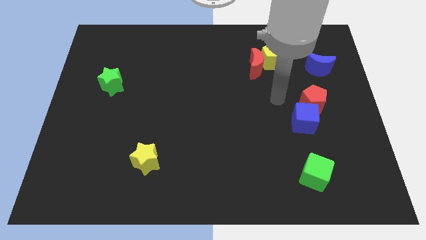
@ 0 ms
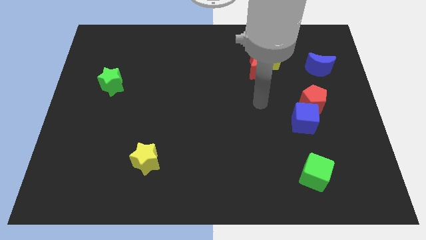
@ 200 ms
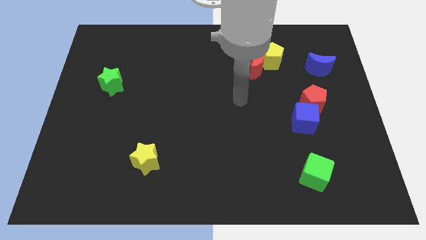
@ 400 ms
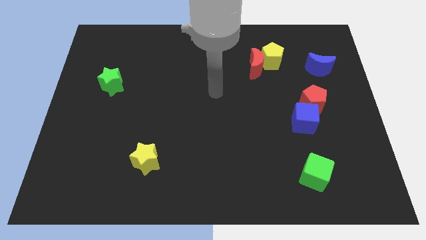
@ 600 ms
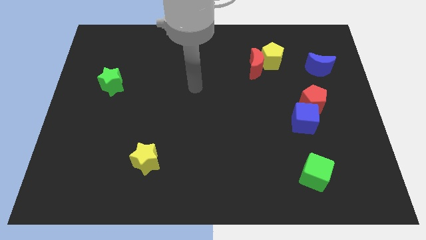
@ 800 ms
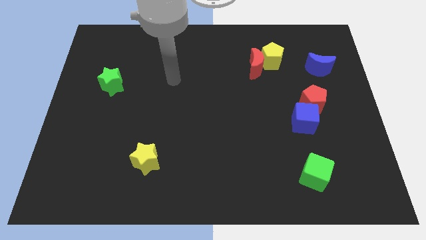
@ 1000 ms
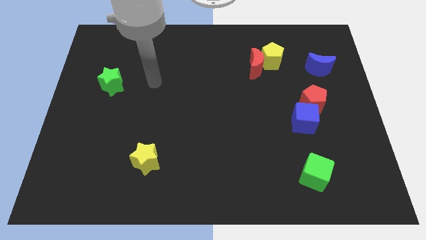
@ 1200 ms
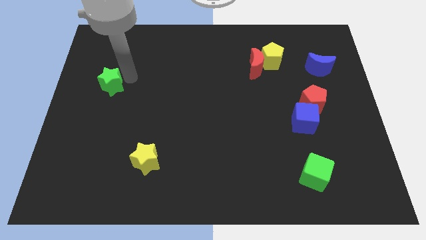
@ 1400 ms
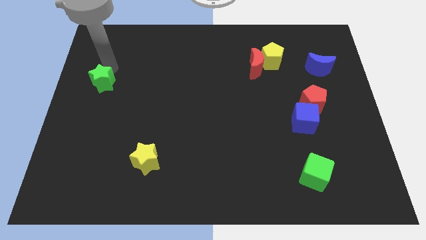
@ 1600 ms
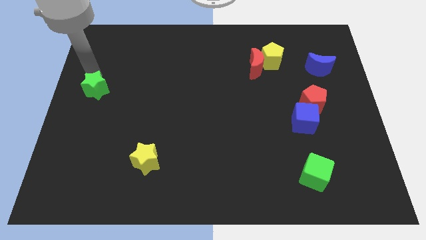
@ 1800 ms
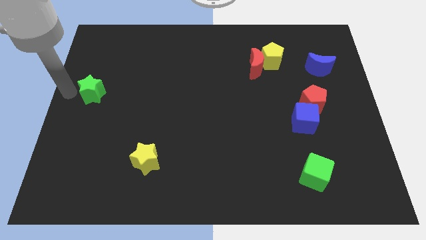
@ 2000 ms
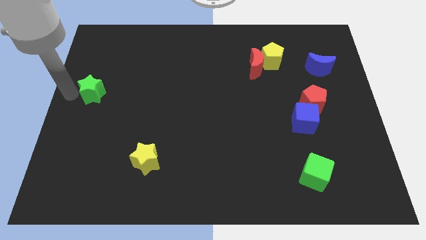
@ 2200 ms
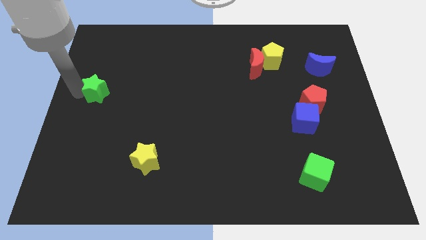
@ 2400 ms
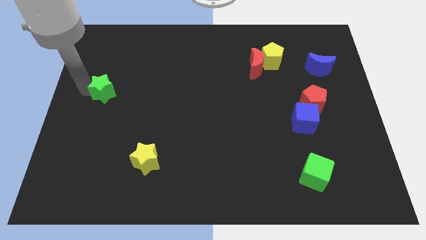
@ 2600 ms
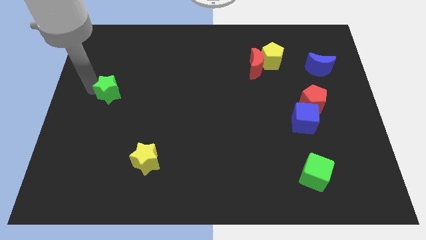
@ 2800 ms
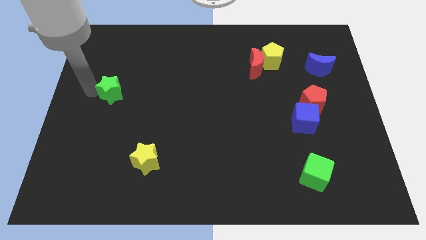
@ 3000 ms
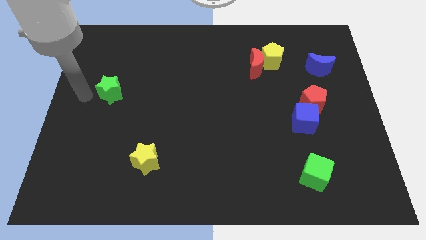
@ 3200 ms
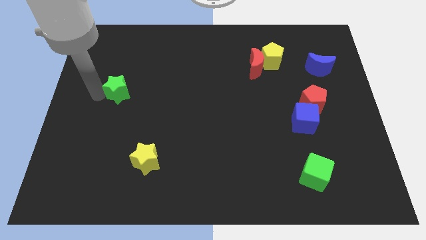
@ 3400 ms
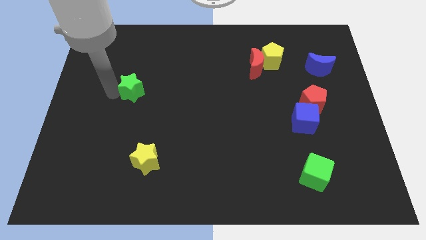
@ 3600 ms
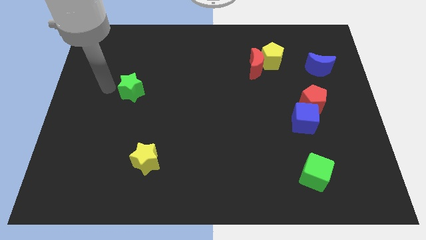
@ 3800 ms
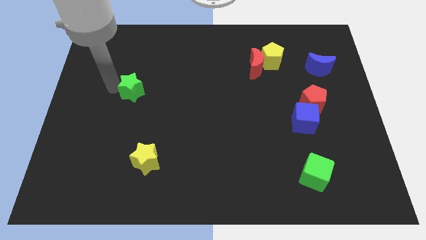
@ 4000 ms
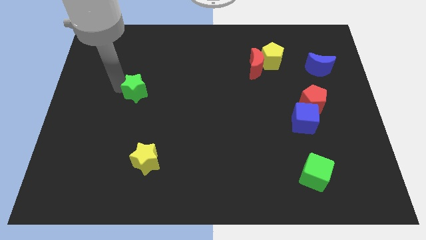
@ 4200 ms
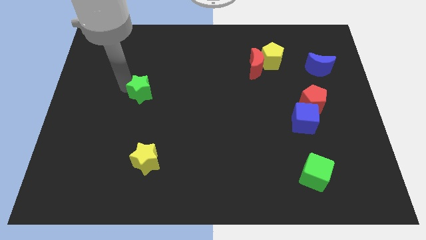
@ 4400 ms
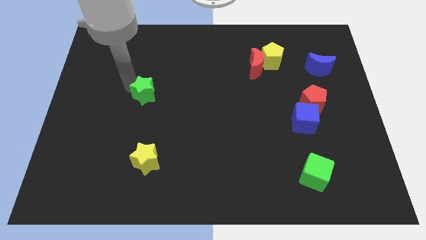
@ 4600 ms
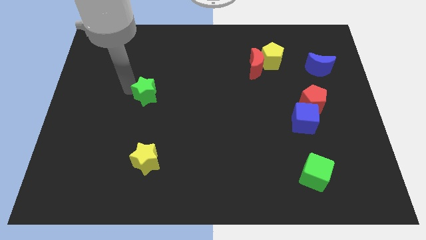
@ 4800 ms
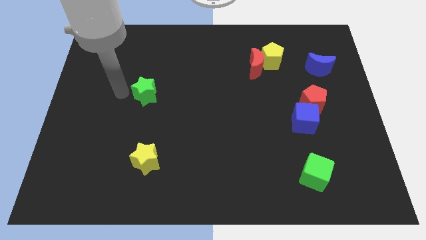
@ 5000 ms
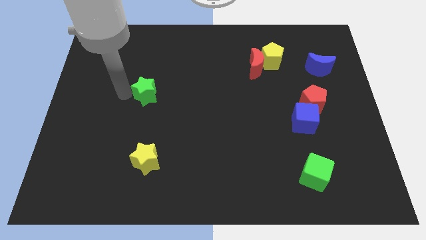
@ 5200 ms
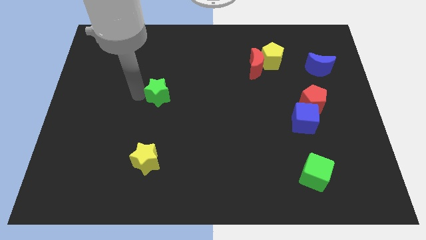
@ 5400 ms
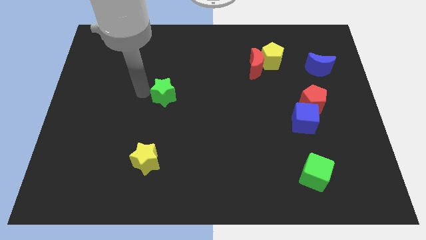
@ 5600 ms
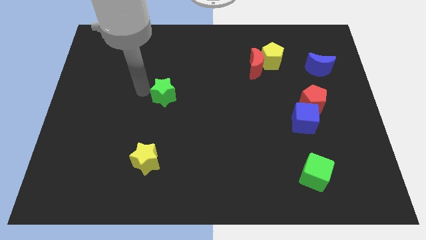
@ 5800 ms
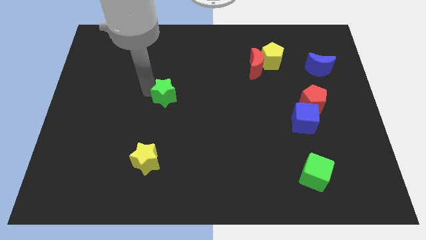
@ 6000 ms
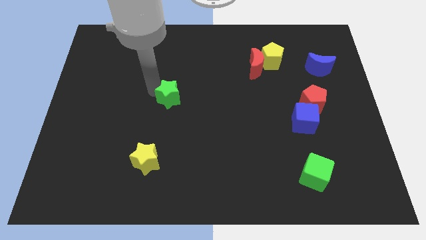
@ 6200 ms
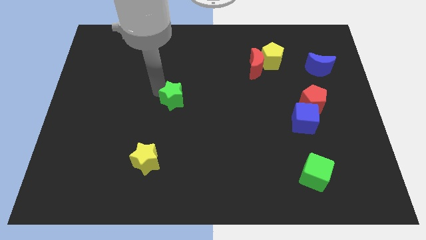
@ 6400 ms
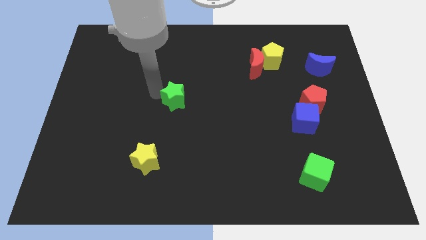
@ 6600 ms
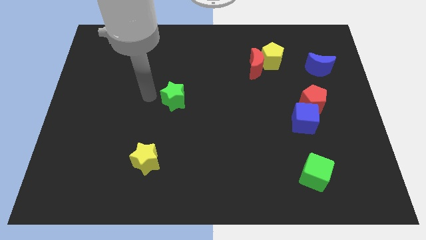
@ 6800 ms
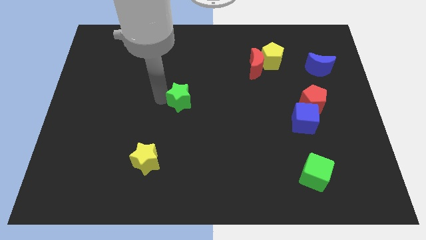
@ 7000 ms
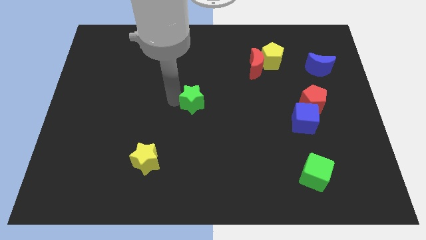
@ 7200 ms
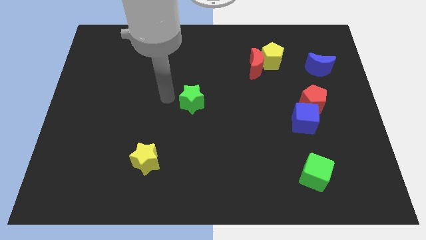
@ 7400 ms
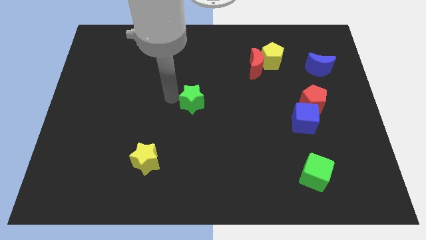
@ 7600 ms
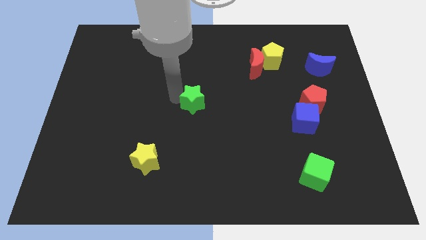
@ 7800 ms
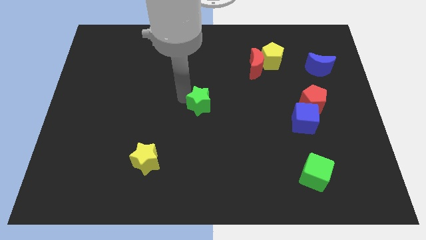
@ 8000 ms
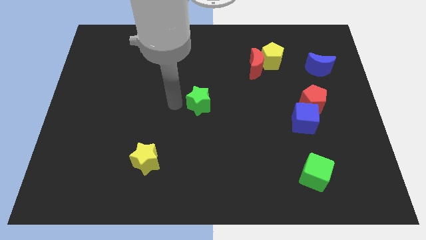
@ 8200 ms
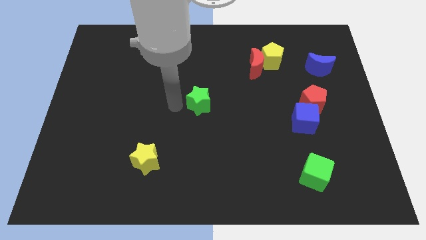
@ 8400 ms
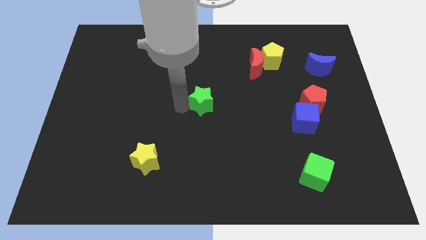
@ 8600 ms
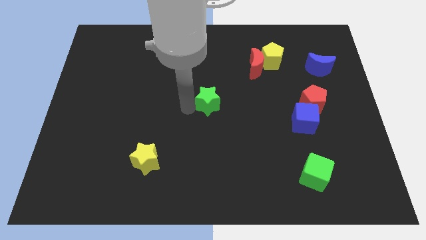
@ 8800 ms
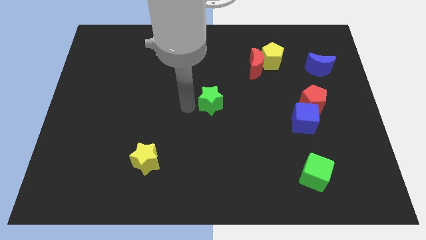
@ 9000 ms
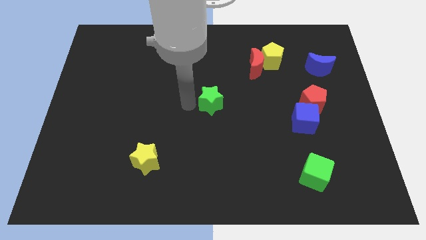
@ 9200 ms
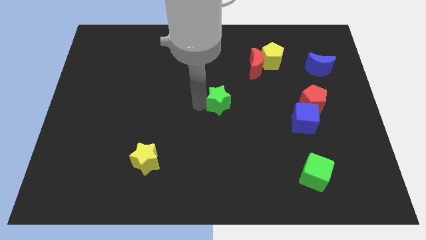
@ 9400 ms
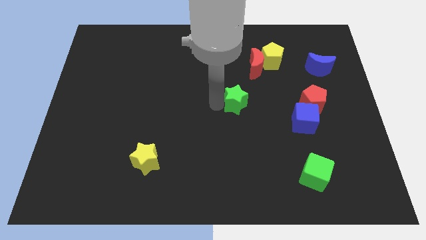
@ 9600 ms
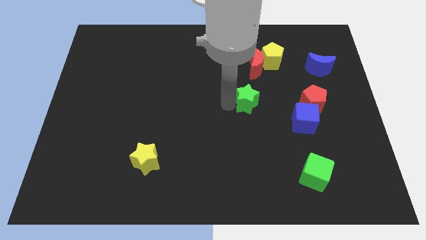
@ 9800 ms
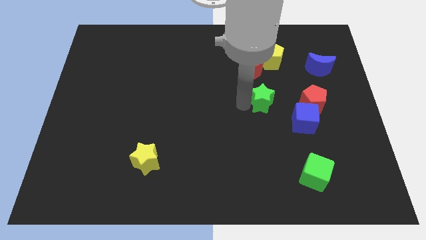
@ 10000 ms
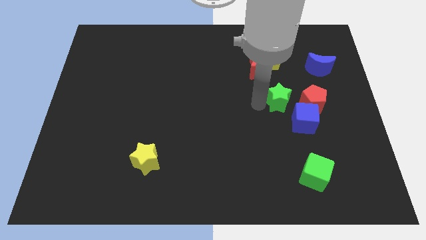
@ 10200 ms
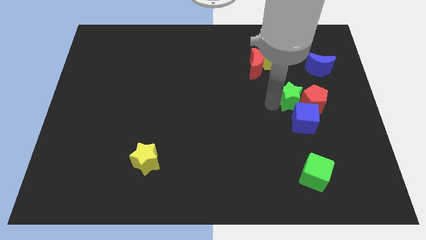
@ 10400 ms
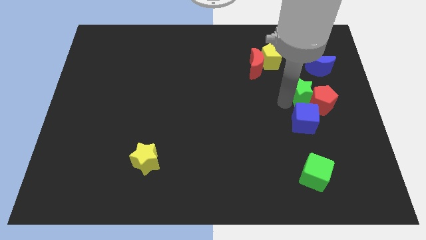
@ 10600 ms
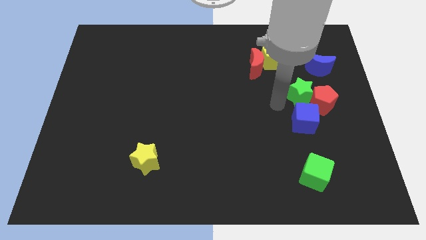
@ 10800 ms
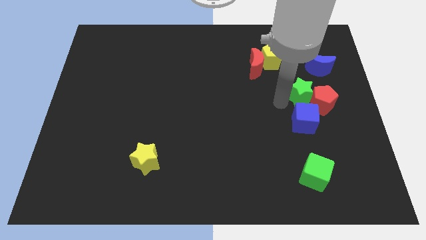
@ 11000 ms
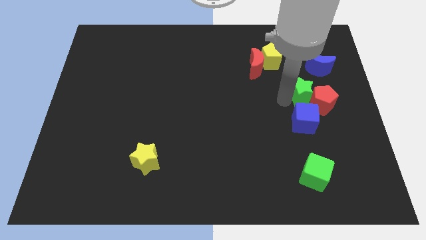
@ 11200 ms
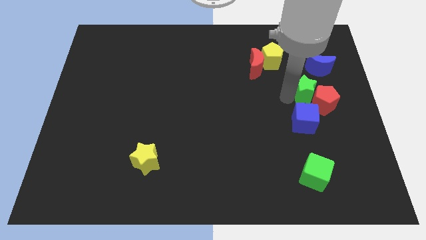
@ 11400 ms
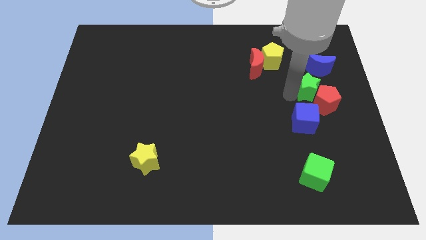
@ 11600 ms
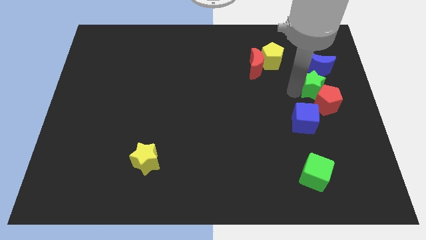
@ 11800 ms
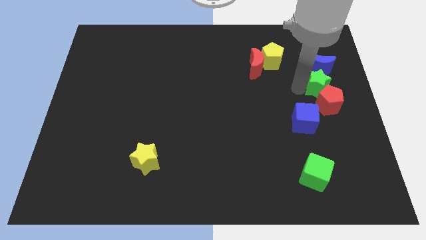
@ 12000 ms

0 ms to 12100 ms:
move the green star to the right side of the board

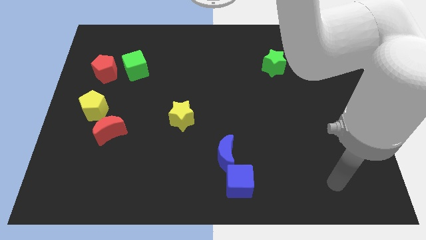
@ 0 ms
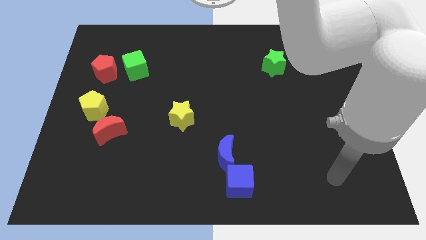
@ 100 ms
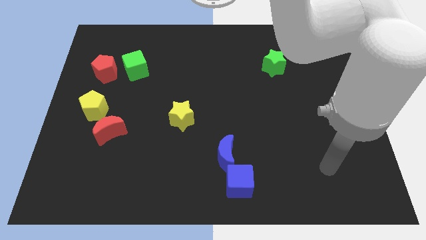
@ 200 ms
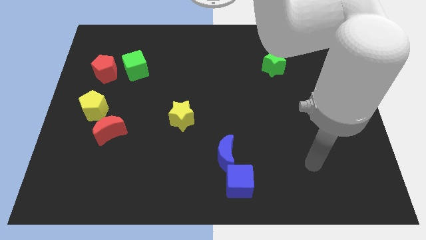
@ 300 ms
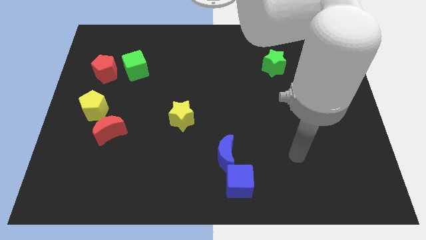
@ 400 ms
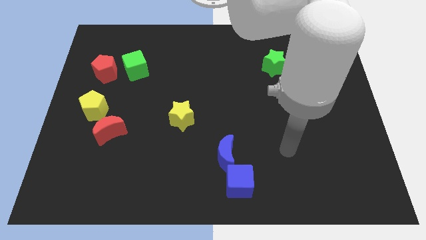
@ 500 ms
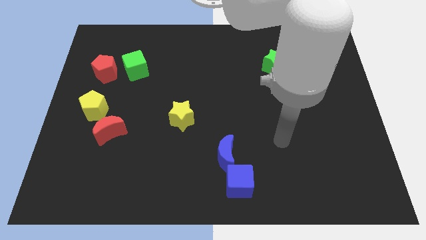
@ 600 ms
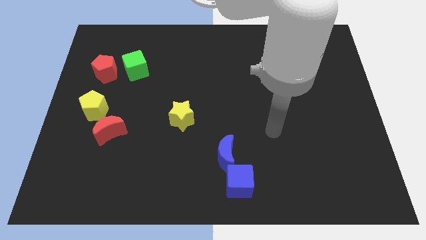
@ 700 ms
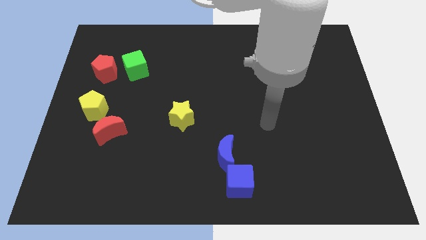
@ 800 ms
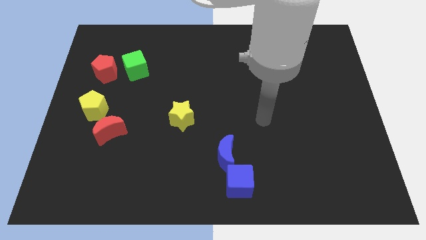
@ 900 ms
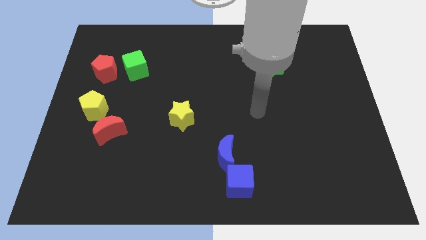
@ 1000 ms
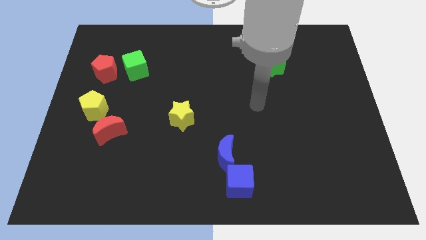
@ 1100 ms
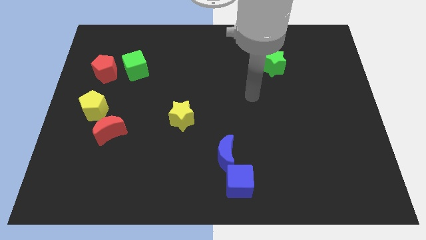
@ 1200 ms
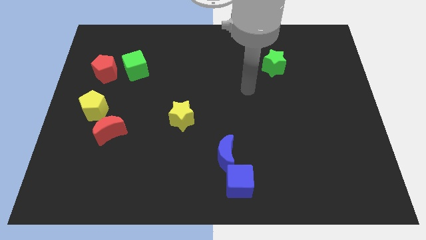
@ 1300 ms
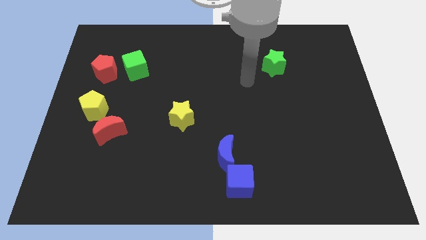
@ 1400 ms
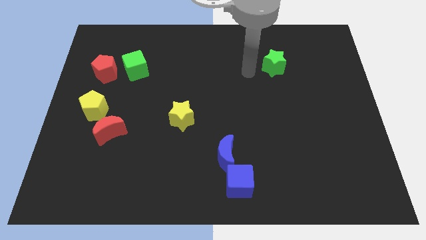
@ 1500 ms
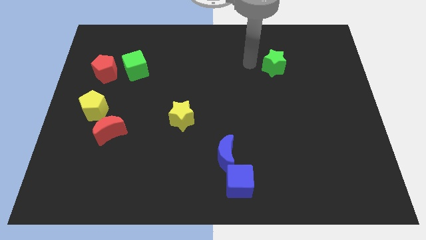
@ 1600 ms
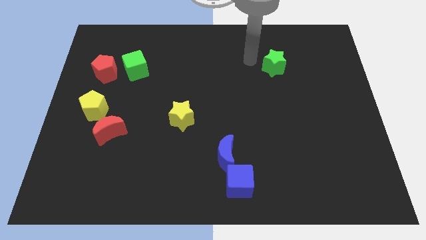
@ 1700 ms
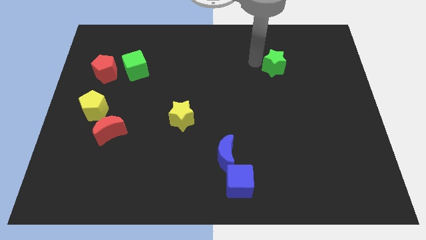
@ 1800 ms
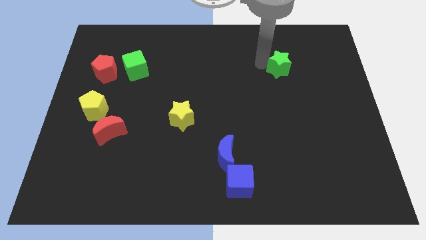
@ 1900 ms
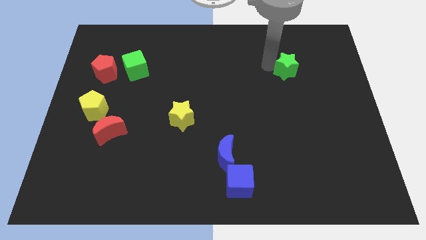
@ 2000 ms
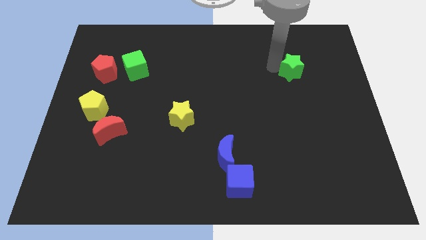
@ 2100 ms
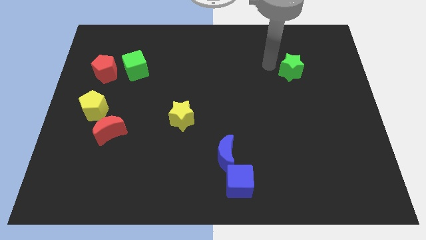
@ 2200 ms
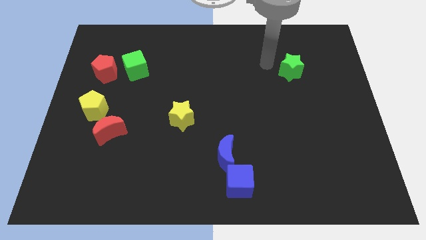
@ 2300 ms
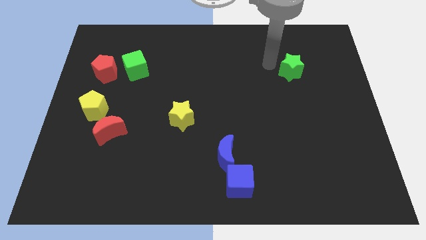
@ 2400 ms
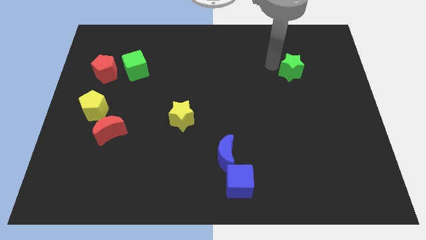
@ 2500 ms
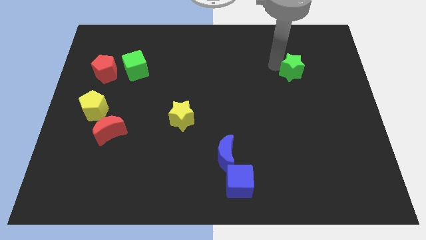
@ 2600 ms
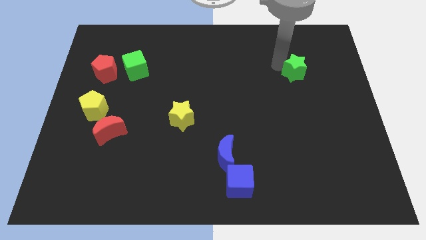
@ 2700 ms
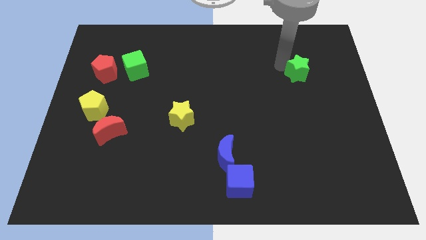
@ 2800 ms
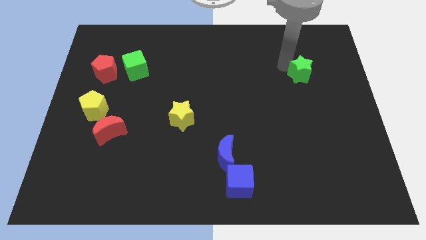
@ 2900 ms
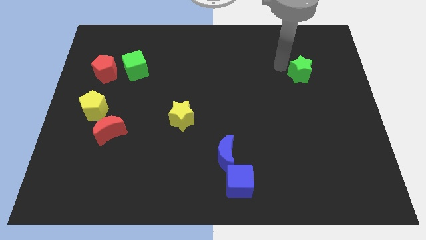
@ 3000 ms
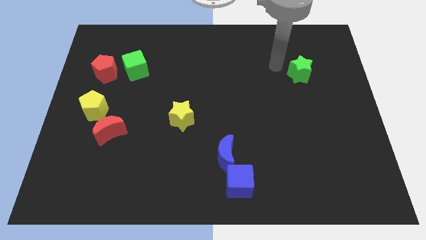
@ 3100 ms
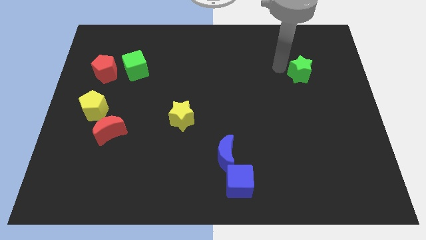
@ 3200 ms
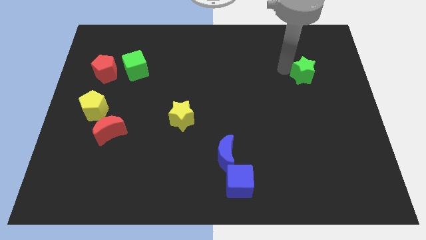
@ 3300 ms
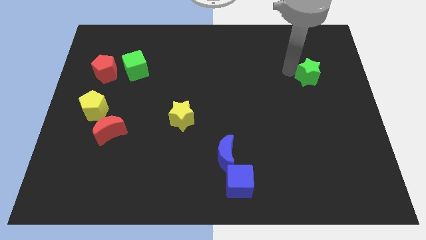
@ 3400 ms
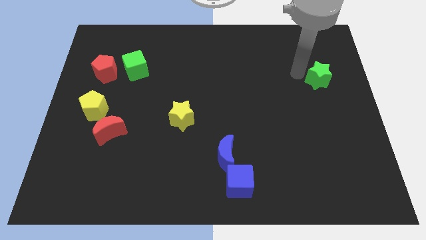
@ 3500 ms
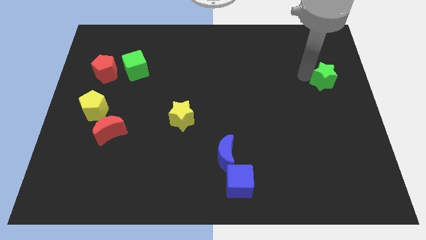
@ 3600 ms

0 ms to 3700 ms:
slide the green star to the right side of the board
